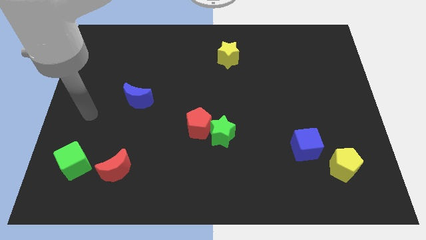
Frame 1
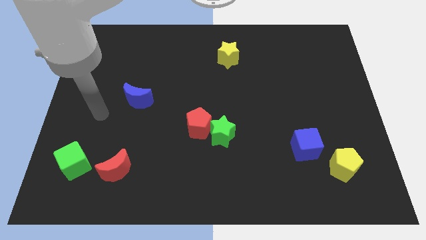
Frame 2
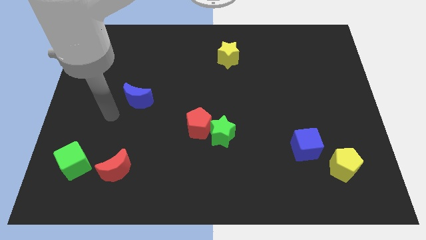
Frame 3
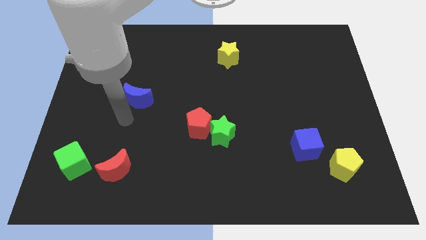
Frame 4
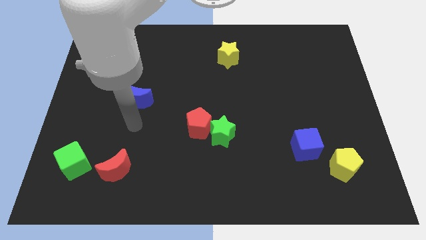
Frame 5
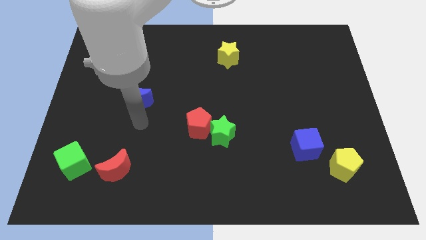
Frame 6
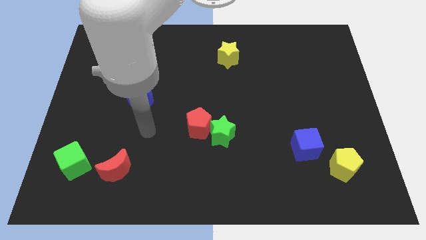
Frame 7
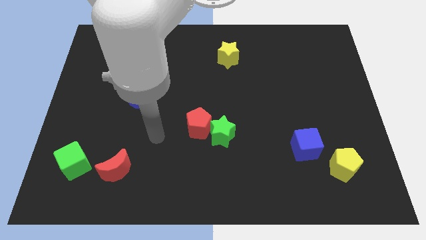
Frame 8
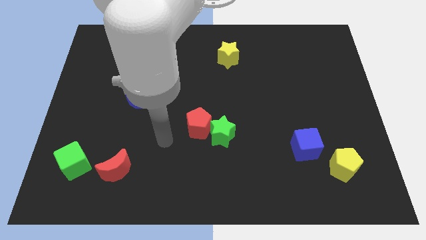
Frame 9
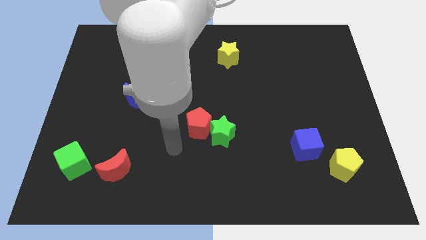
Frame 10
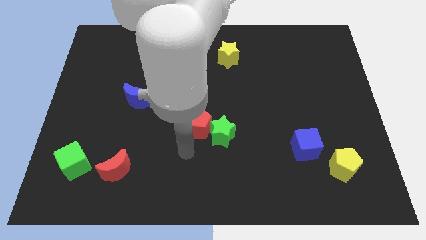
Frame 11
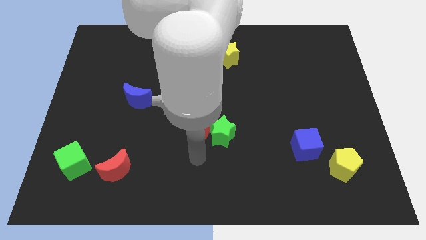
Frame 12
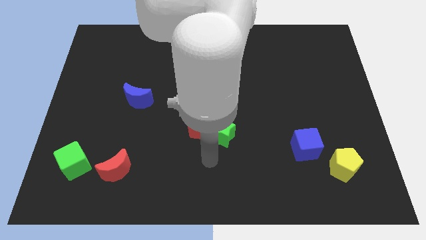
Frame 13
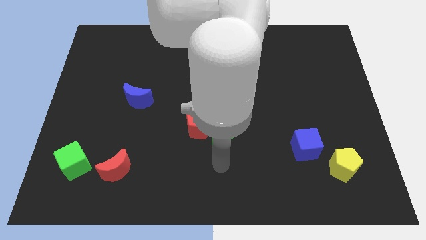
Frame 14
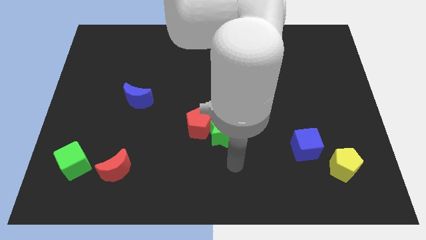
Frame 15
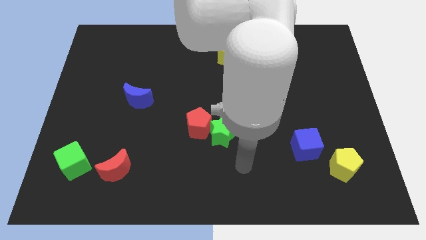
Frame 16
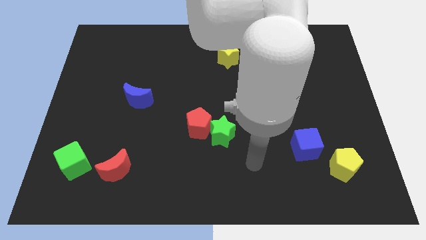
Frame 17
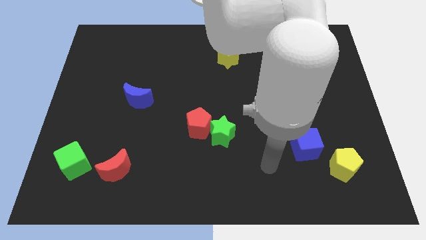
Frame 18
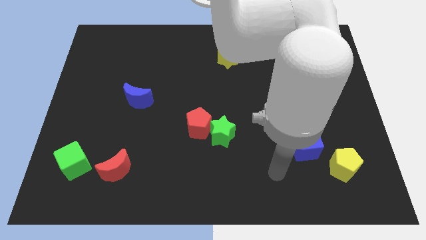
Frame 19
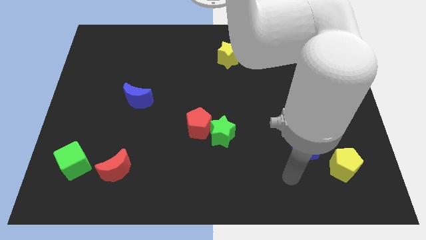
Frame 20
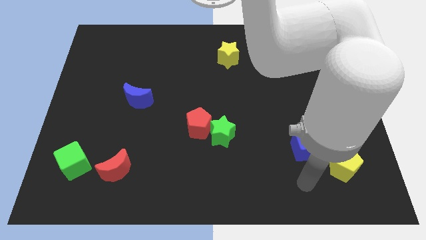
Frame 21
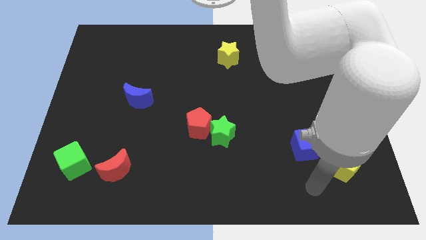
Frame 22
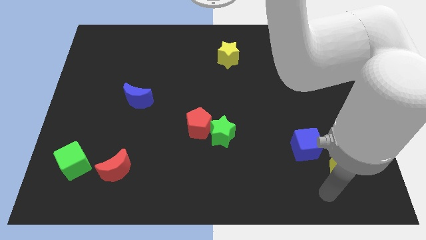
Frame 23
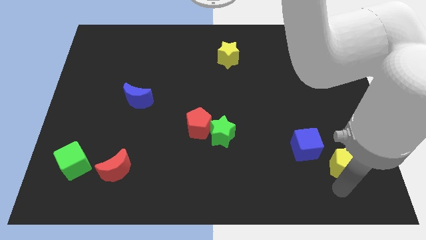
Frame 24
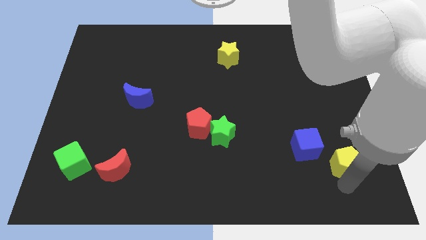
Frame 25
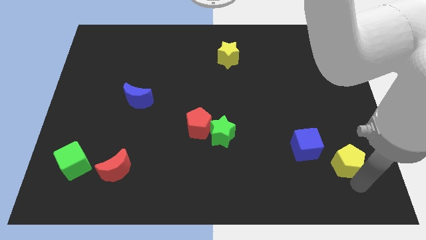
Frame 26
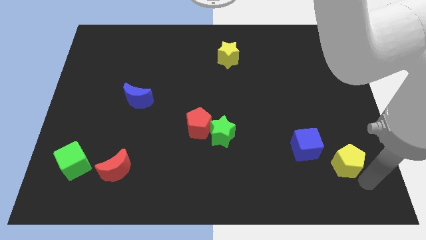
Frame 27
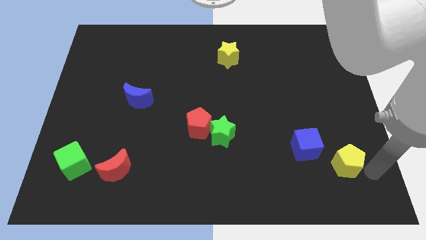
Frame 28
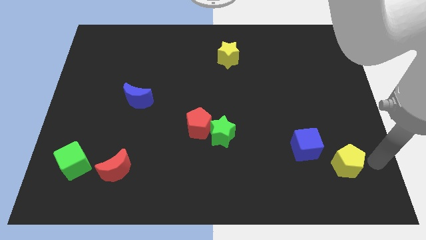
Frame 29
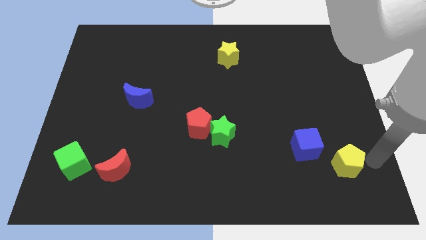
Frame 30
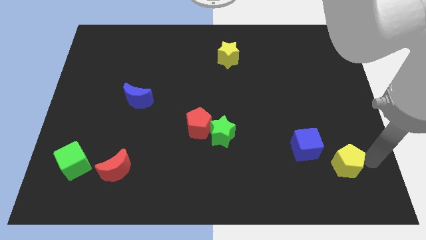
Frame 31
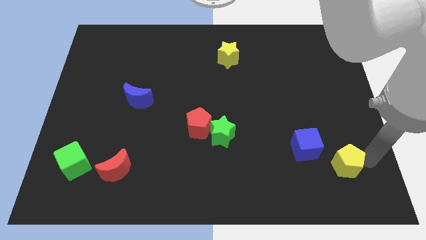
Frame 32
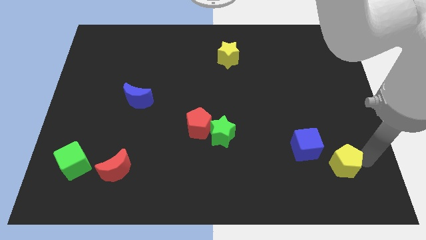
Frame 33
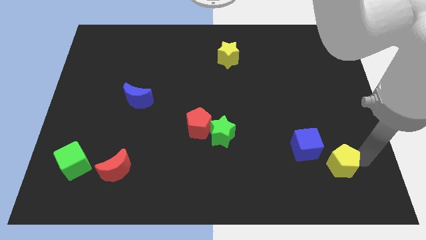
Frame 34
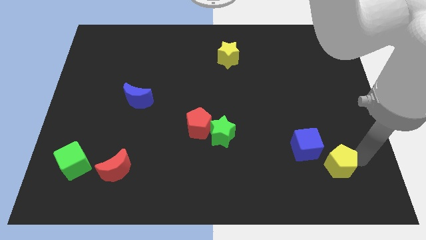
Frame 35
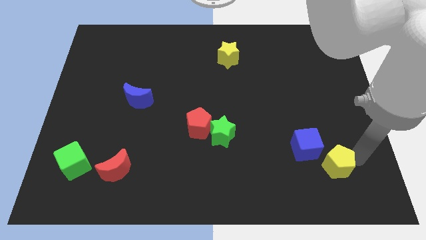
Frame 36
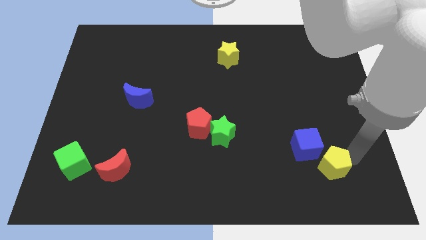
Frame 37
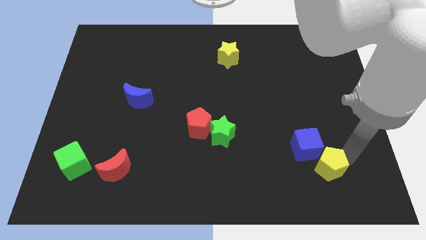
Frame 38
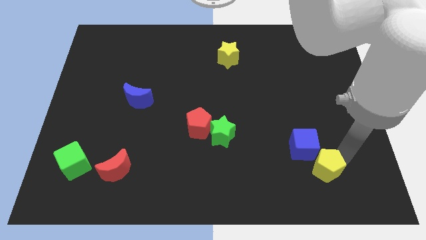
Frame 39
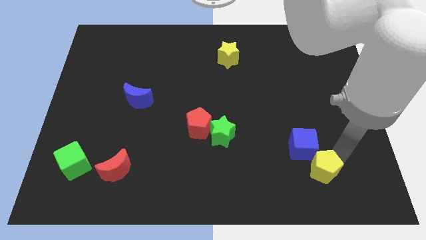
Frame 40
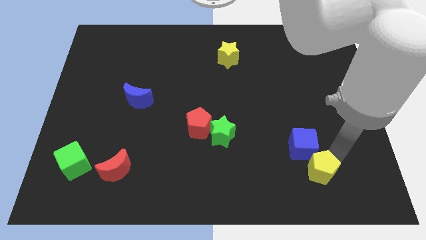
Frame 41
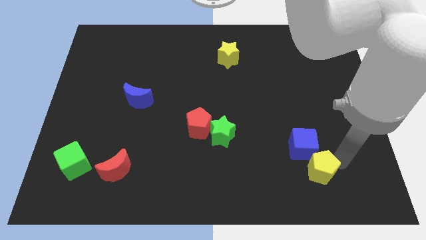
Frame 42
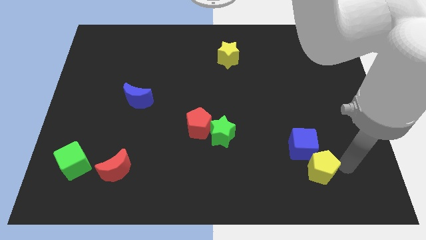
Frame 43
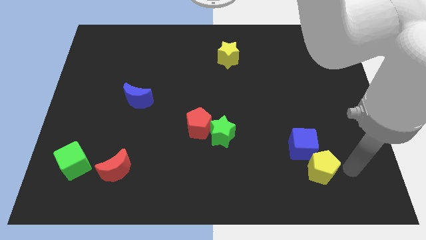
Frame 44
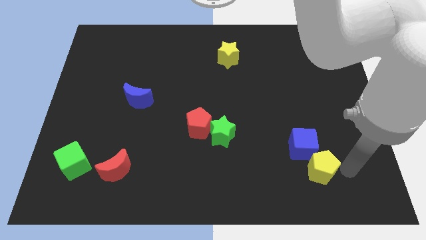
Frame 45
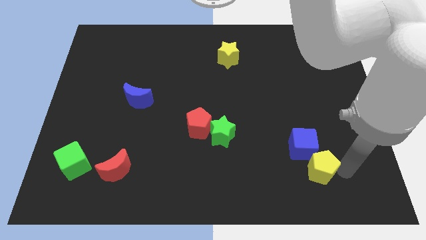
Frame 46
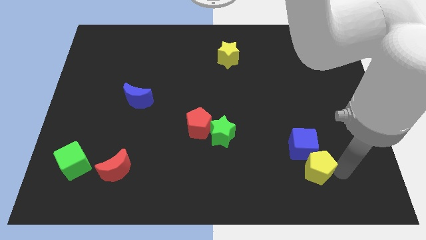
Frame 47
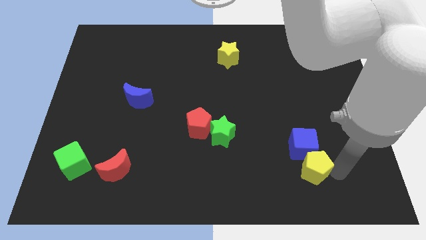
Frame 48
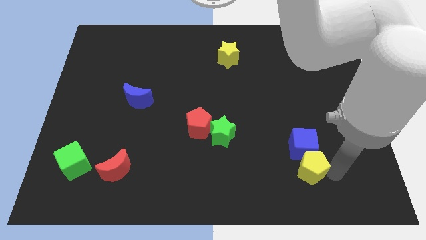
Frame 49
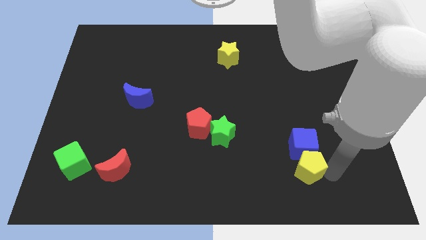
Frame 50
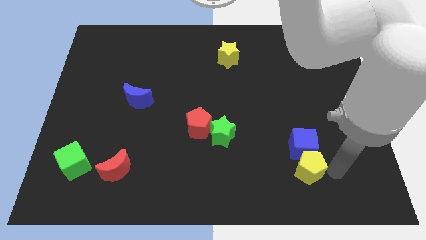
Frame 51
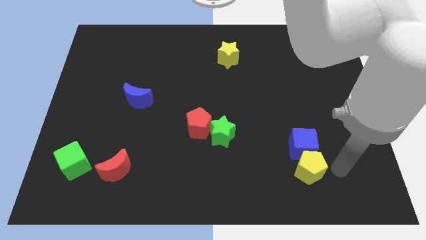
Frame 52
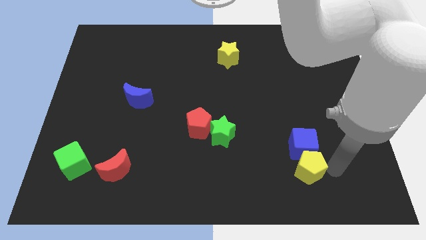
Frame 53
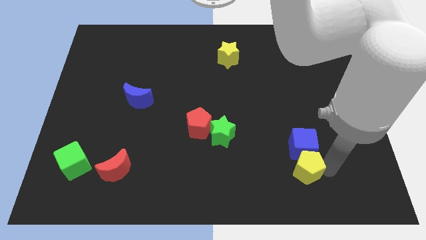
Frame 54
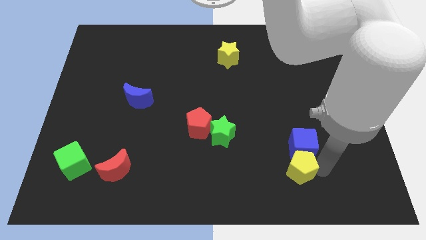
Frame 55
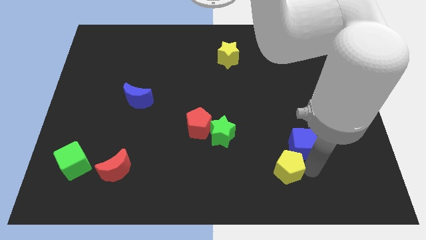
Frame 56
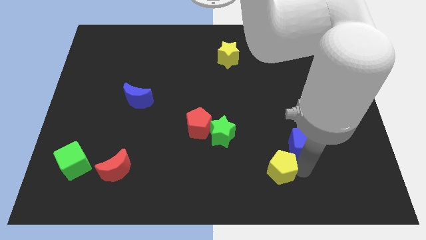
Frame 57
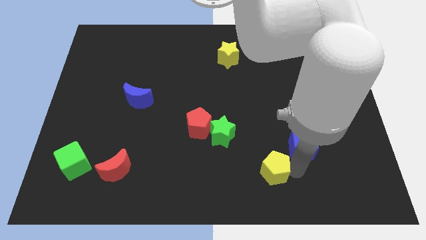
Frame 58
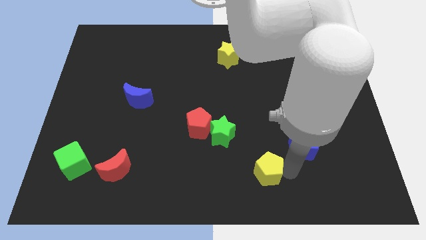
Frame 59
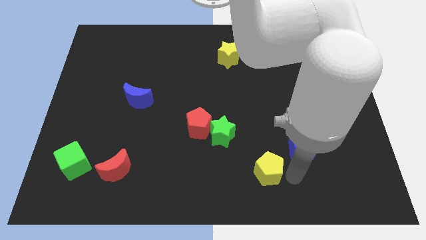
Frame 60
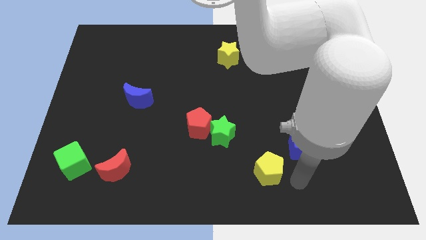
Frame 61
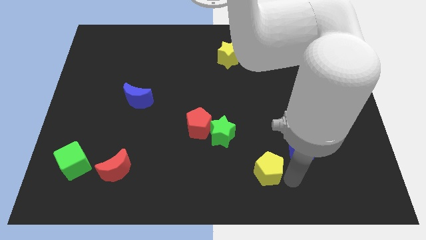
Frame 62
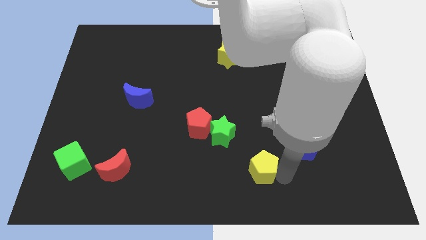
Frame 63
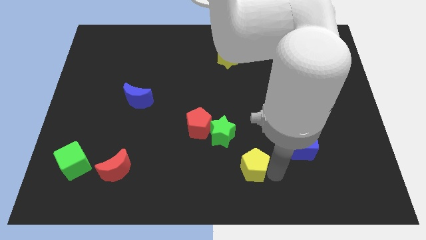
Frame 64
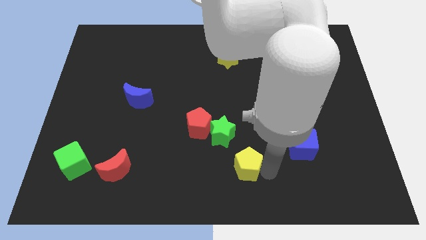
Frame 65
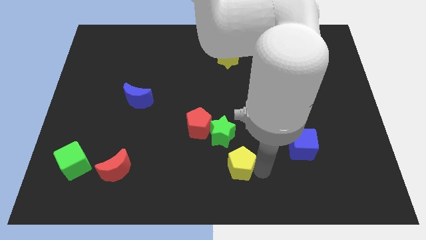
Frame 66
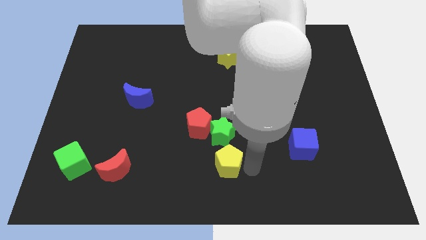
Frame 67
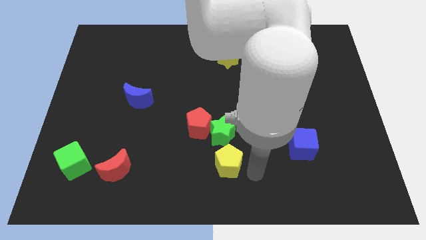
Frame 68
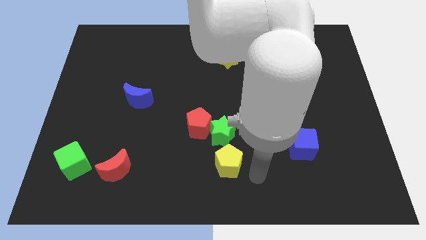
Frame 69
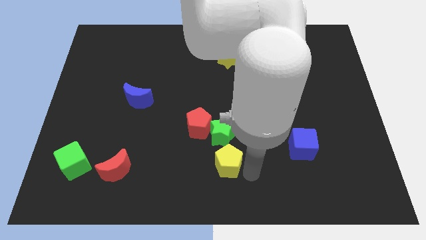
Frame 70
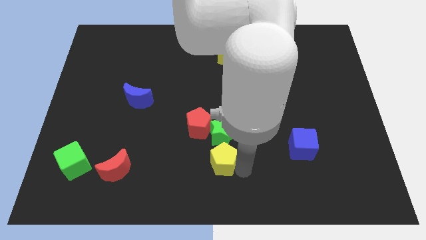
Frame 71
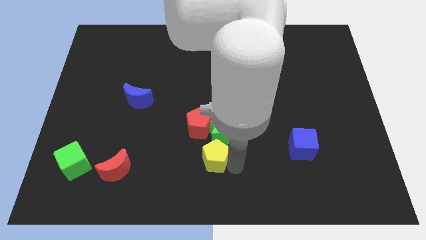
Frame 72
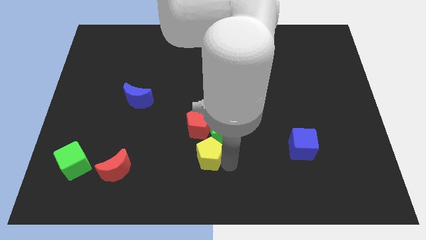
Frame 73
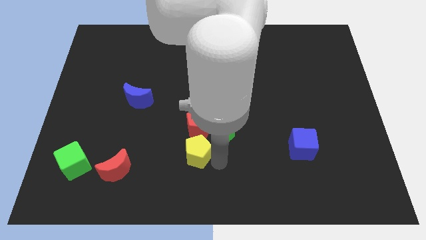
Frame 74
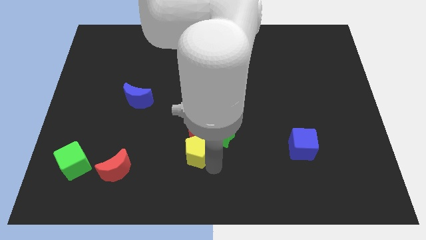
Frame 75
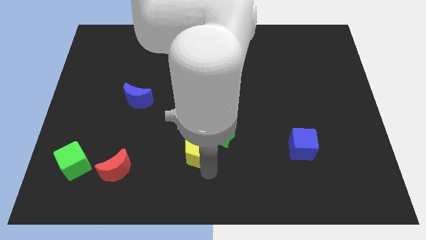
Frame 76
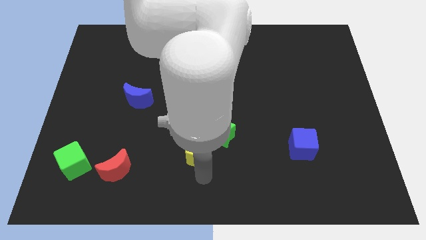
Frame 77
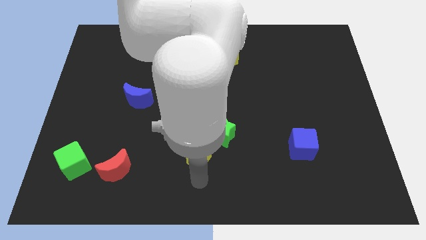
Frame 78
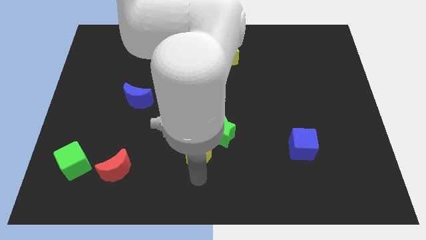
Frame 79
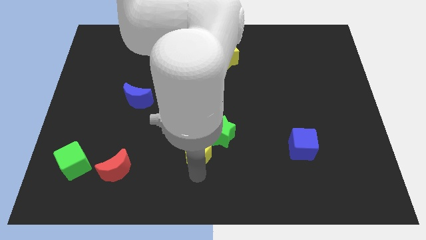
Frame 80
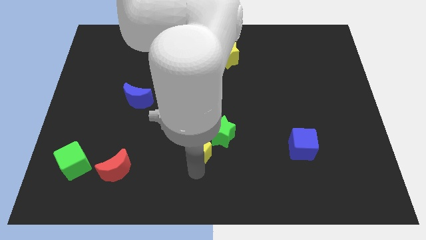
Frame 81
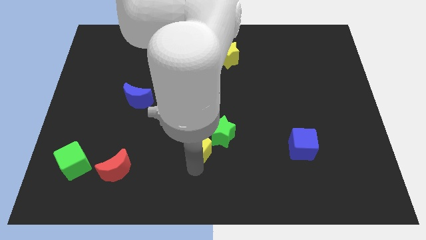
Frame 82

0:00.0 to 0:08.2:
slide the yellow pentagon to the red pentagon

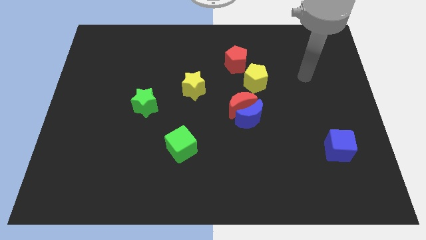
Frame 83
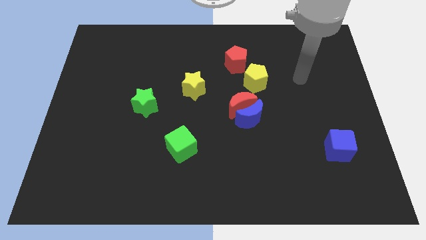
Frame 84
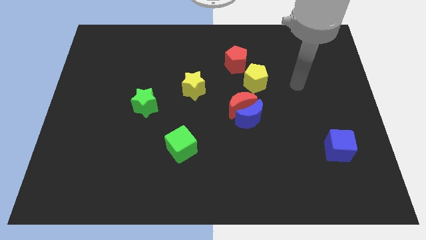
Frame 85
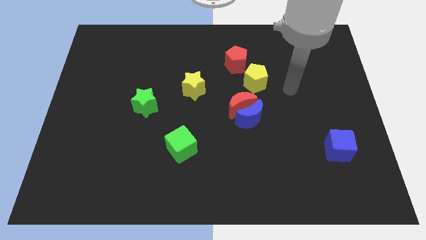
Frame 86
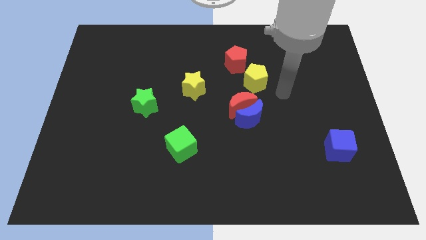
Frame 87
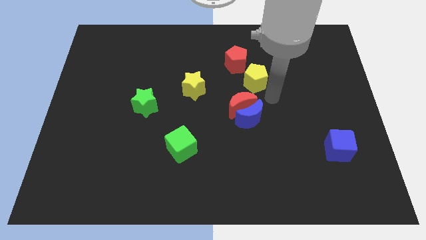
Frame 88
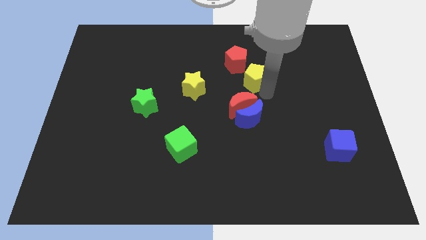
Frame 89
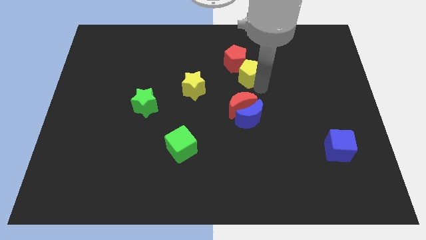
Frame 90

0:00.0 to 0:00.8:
put the yellow pentagon next to the red pentagon
